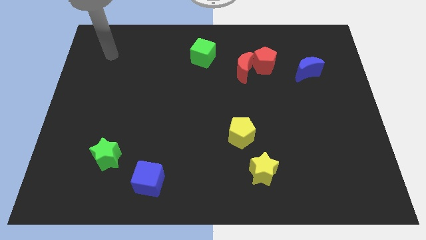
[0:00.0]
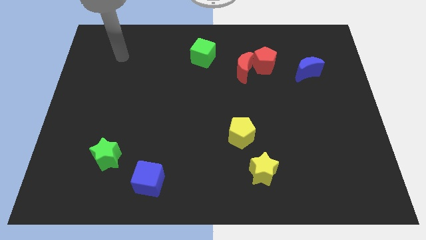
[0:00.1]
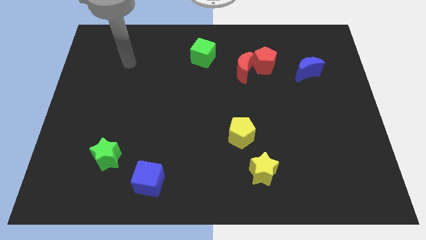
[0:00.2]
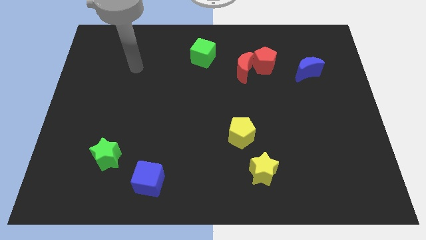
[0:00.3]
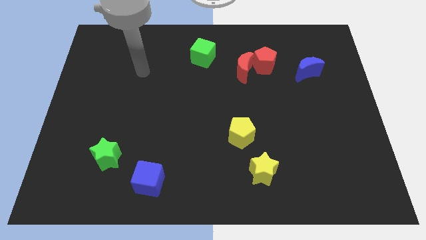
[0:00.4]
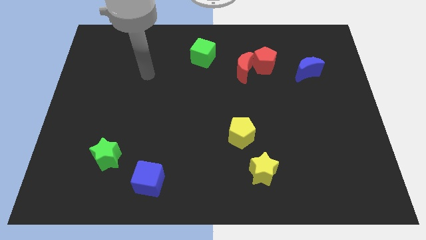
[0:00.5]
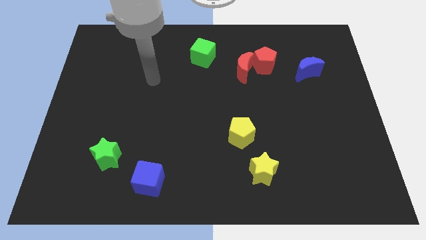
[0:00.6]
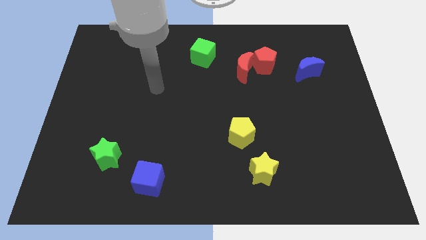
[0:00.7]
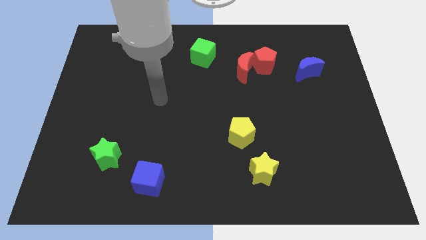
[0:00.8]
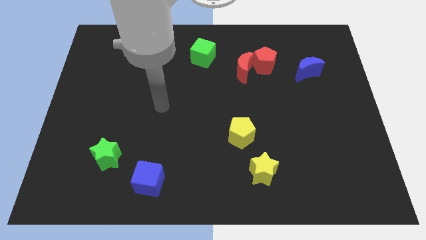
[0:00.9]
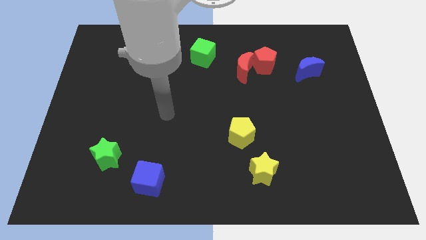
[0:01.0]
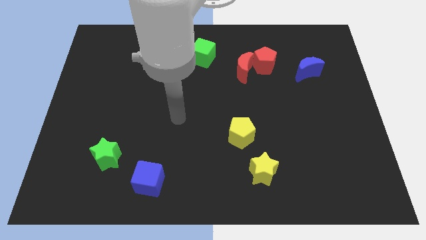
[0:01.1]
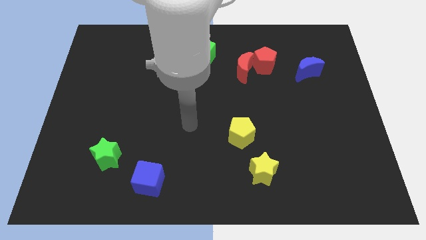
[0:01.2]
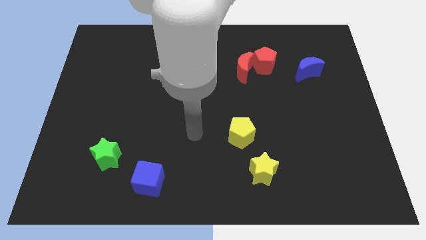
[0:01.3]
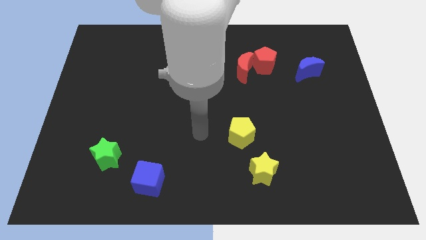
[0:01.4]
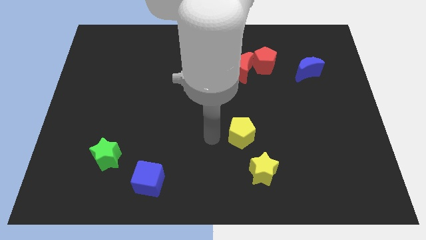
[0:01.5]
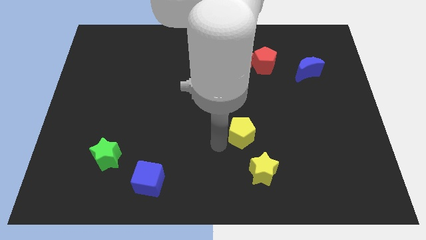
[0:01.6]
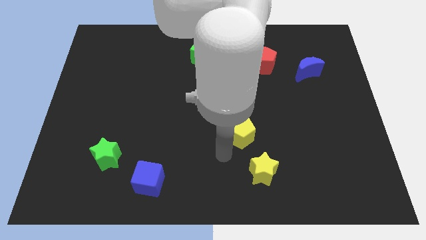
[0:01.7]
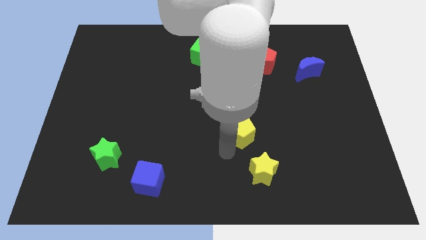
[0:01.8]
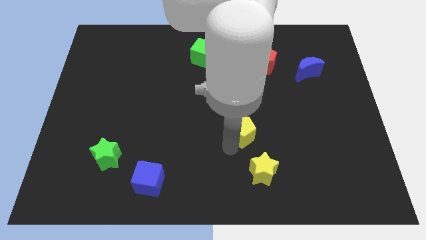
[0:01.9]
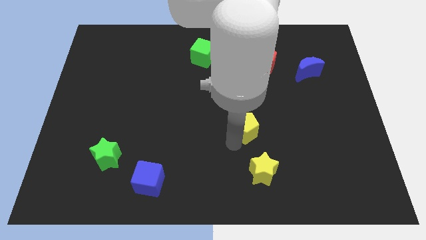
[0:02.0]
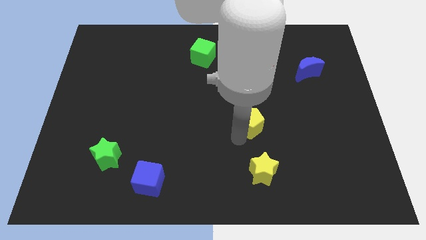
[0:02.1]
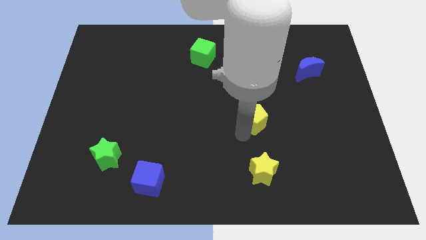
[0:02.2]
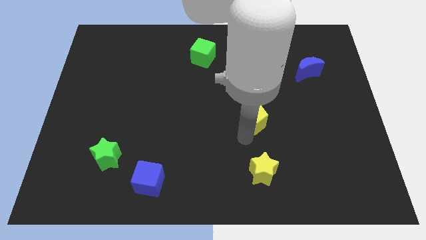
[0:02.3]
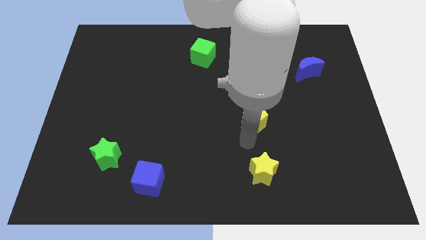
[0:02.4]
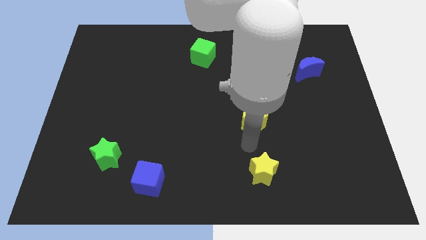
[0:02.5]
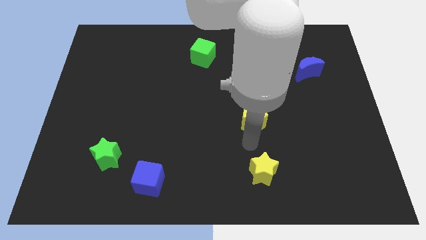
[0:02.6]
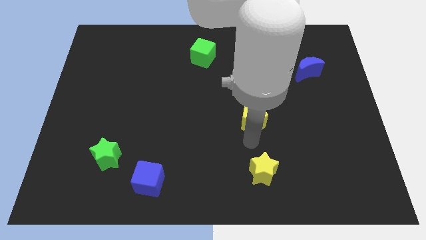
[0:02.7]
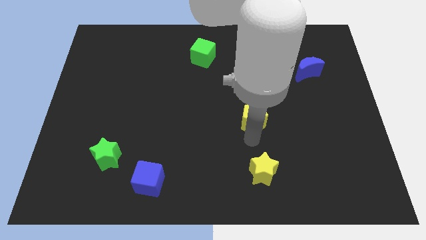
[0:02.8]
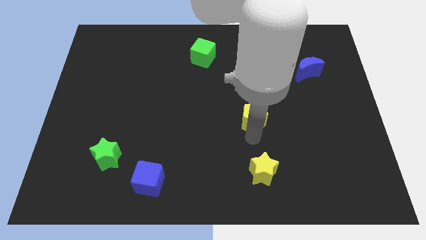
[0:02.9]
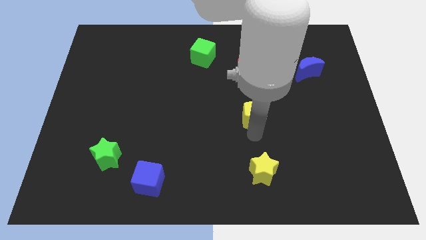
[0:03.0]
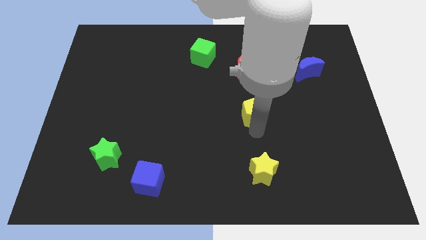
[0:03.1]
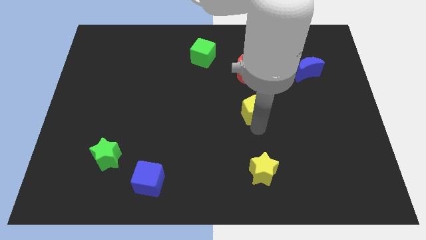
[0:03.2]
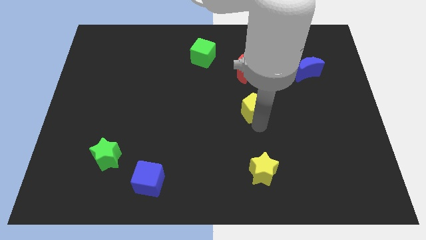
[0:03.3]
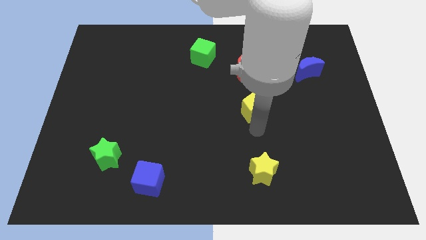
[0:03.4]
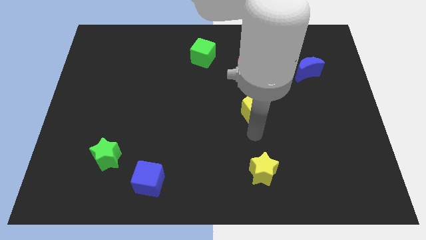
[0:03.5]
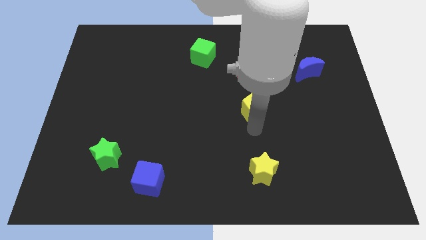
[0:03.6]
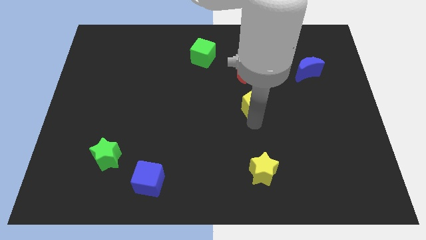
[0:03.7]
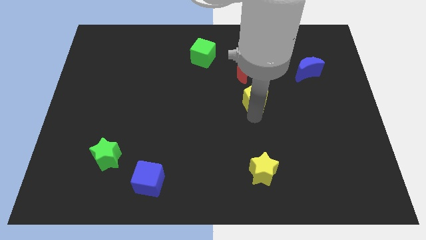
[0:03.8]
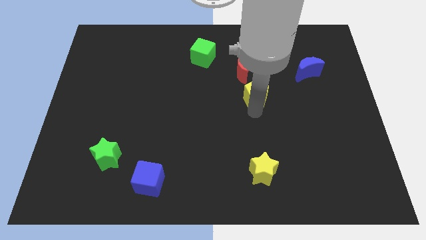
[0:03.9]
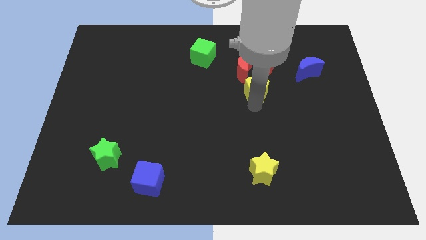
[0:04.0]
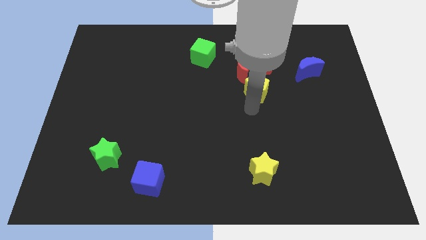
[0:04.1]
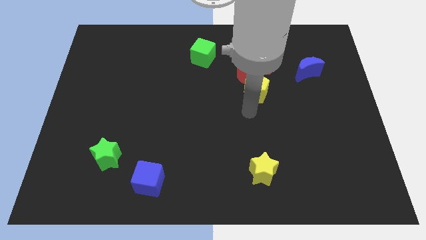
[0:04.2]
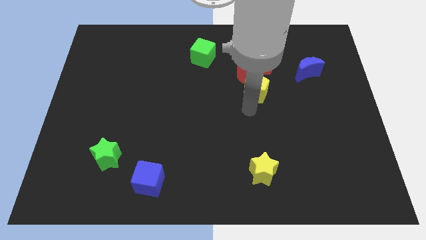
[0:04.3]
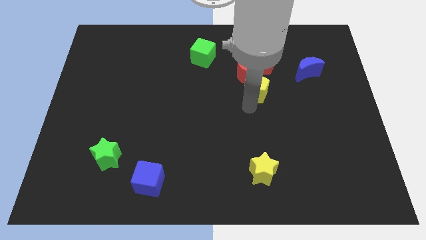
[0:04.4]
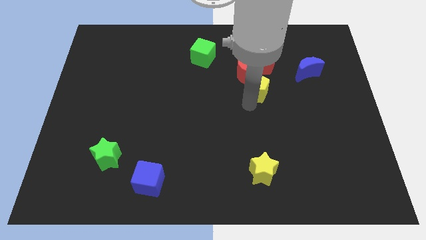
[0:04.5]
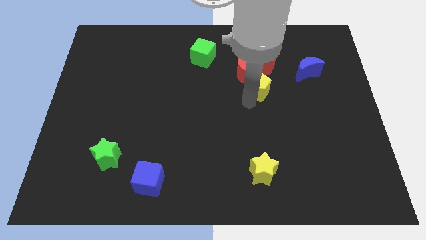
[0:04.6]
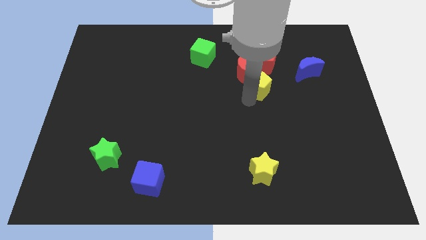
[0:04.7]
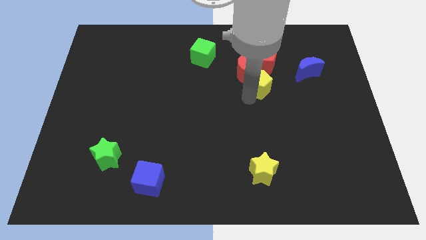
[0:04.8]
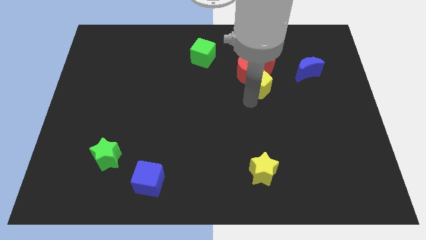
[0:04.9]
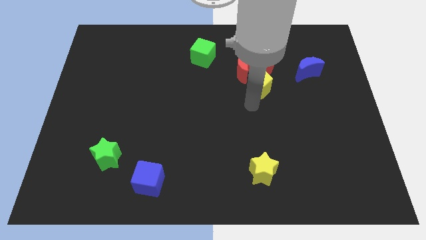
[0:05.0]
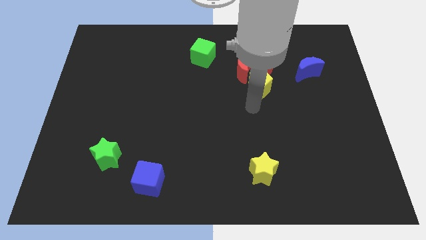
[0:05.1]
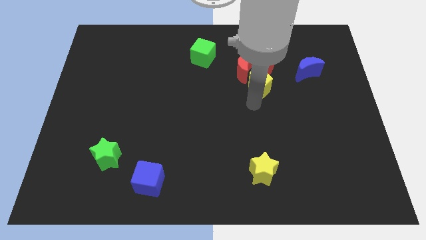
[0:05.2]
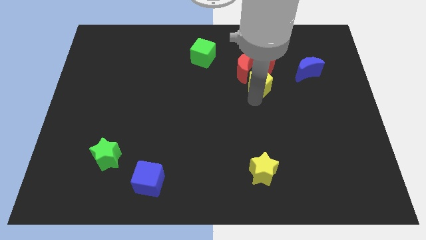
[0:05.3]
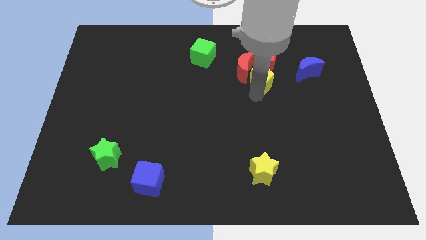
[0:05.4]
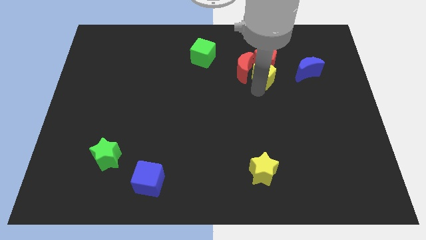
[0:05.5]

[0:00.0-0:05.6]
slide the yellow pentagon next to the red pentagon

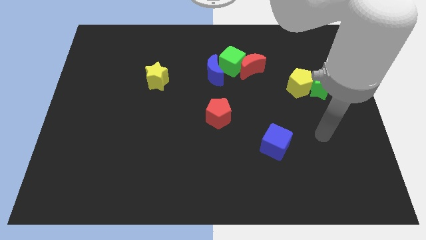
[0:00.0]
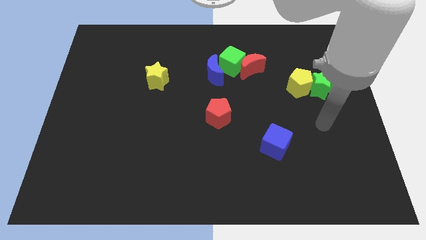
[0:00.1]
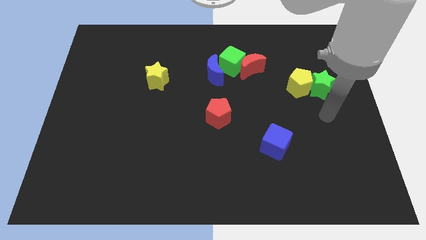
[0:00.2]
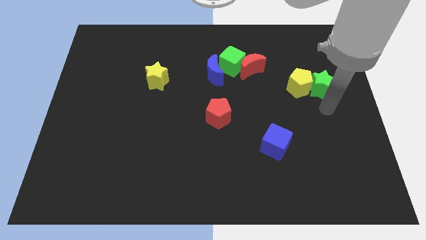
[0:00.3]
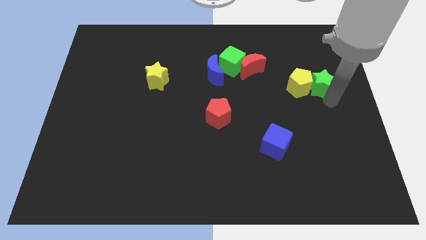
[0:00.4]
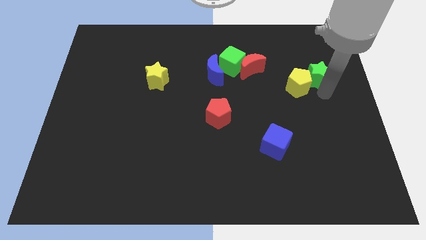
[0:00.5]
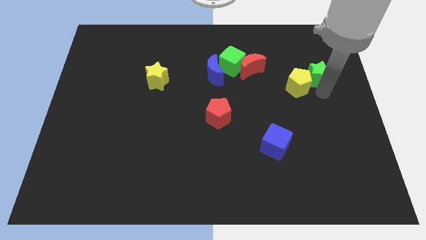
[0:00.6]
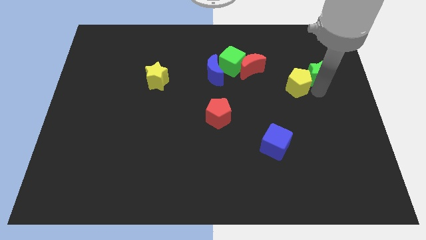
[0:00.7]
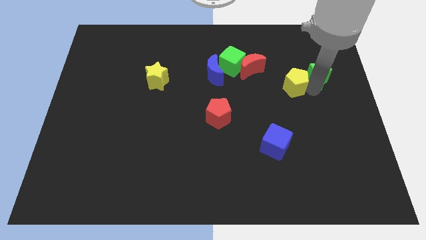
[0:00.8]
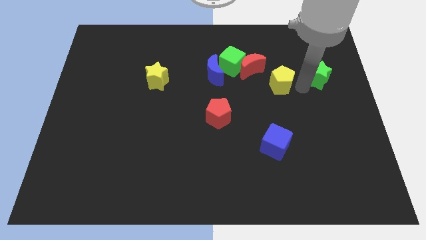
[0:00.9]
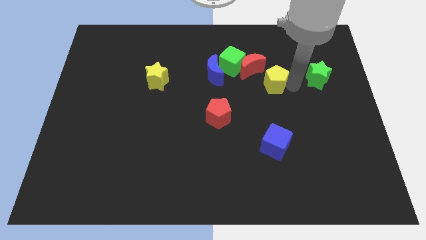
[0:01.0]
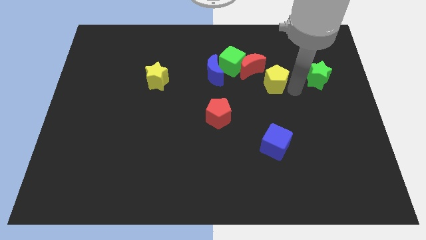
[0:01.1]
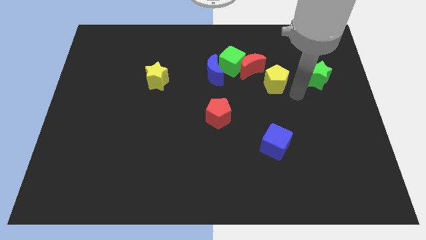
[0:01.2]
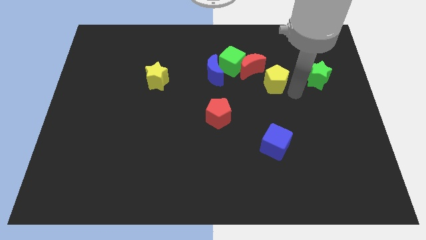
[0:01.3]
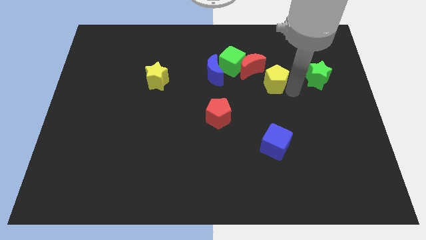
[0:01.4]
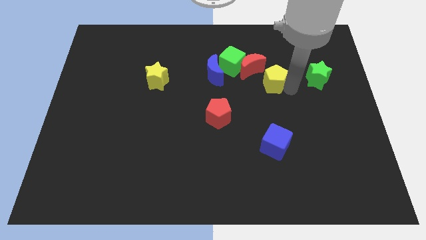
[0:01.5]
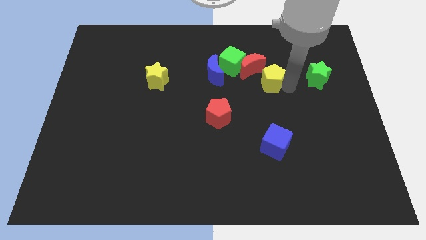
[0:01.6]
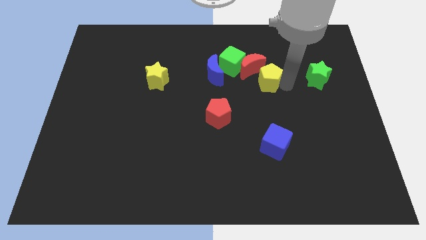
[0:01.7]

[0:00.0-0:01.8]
push the yellow pentagon to the red moon
